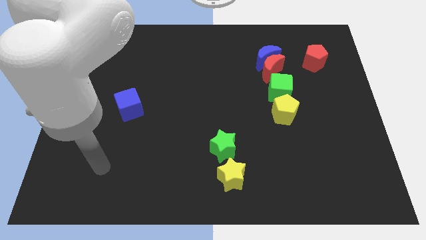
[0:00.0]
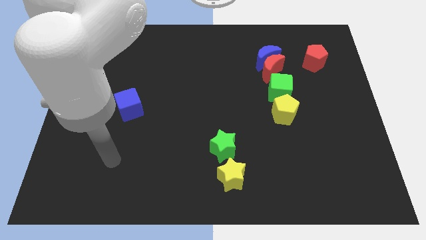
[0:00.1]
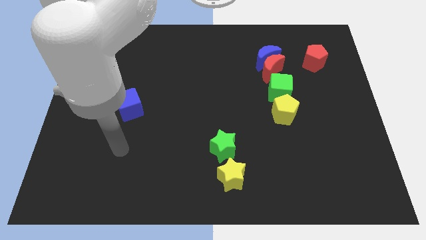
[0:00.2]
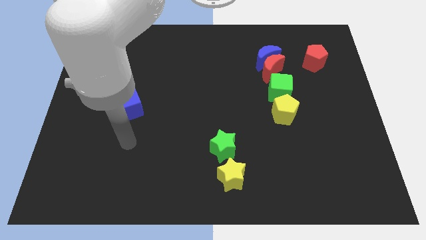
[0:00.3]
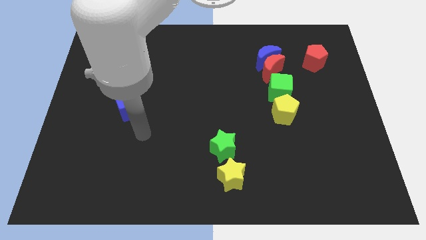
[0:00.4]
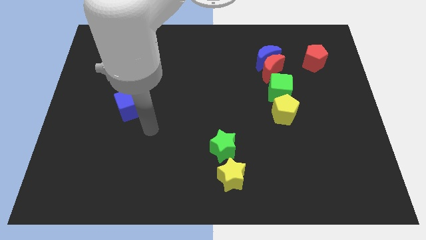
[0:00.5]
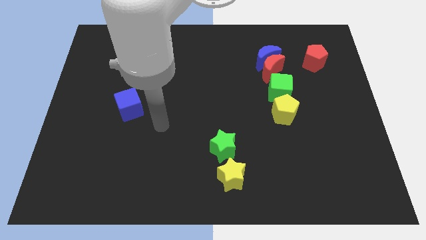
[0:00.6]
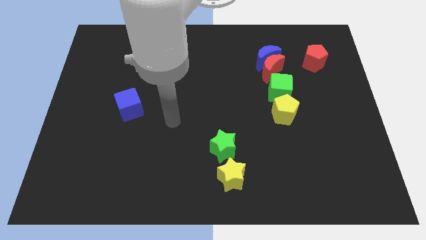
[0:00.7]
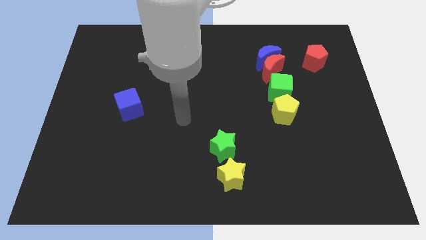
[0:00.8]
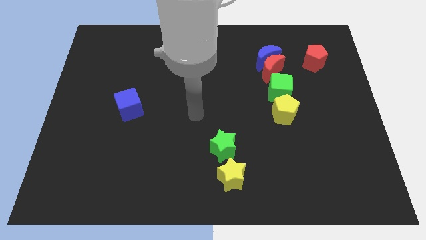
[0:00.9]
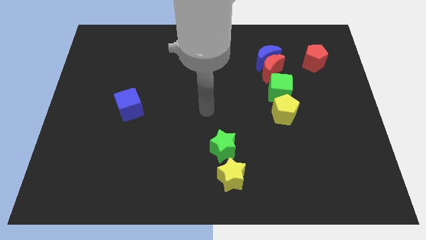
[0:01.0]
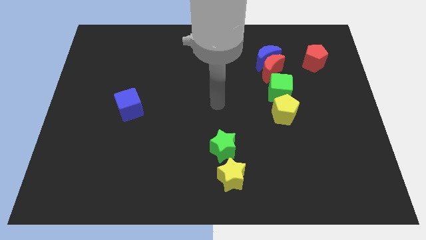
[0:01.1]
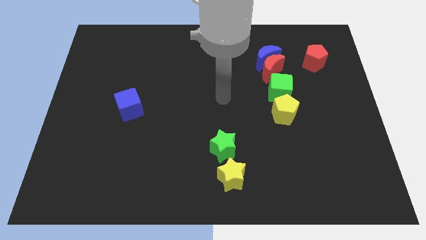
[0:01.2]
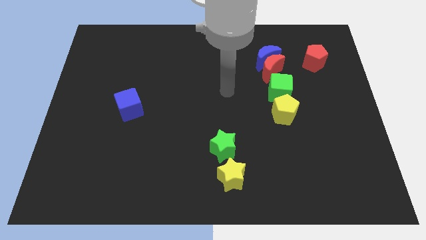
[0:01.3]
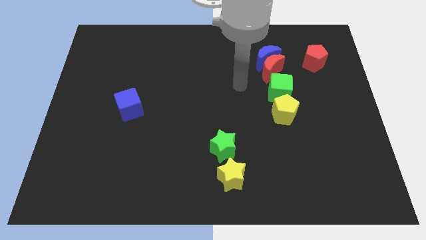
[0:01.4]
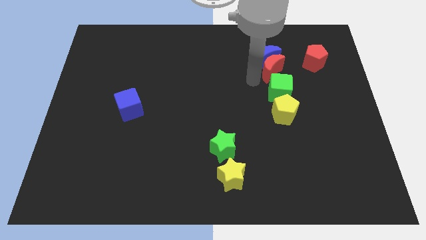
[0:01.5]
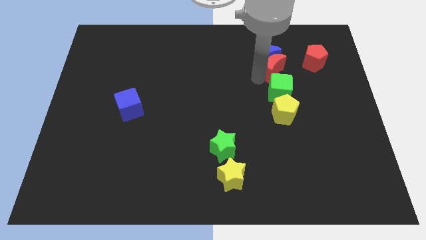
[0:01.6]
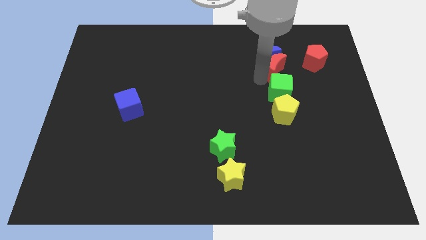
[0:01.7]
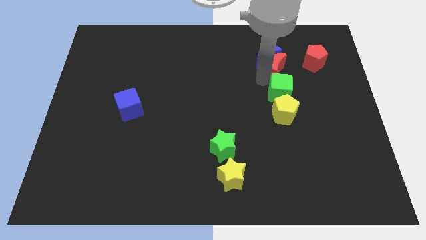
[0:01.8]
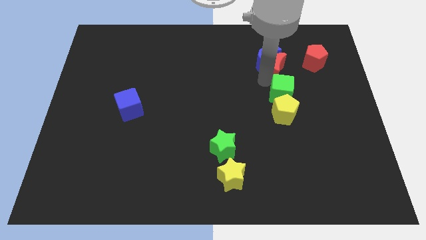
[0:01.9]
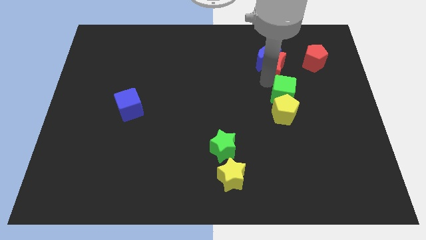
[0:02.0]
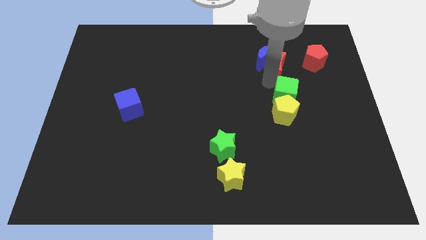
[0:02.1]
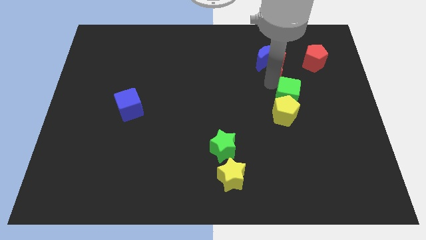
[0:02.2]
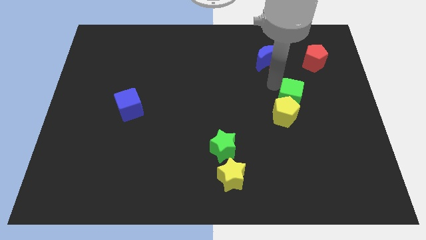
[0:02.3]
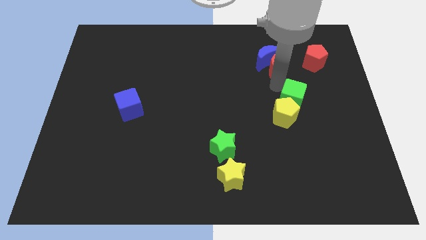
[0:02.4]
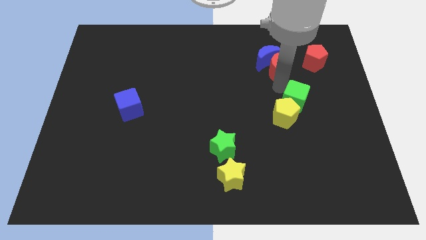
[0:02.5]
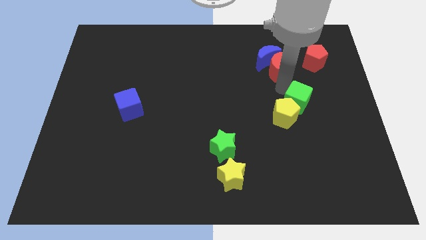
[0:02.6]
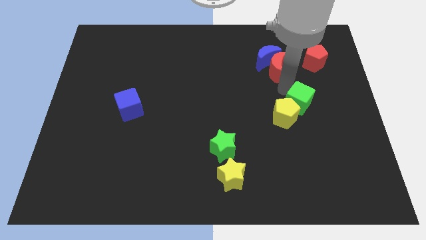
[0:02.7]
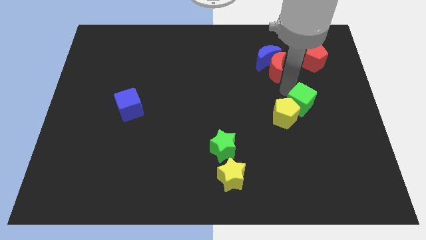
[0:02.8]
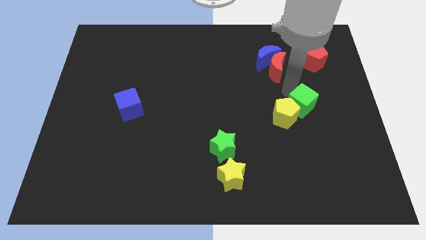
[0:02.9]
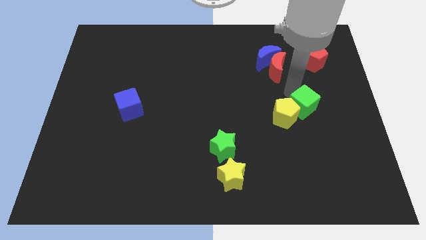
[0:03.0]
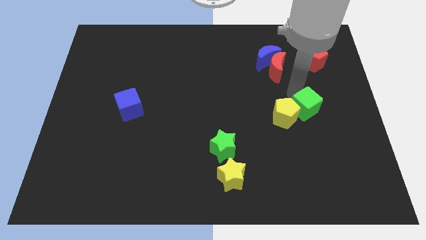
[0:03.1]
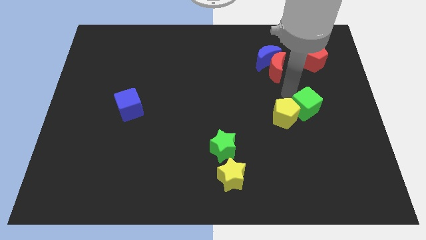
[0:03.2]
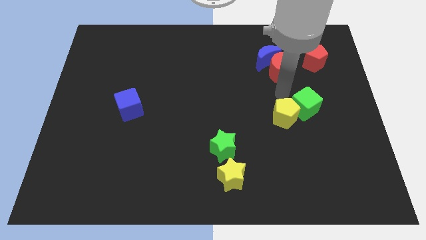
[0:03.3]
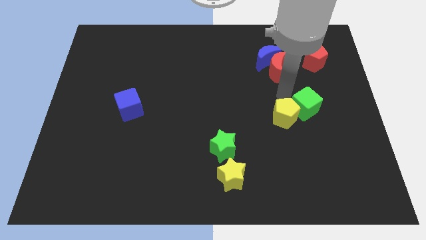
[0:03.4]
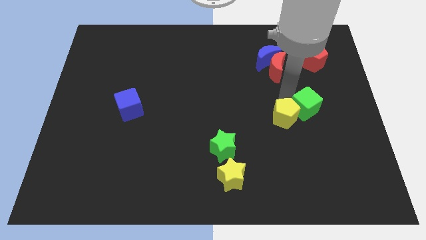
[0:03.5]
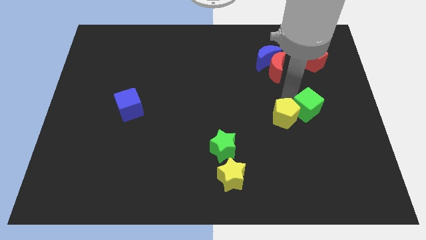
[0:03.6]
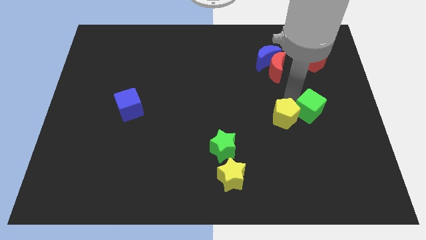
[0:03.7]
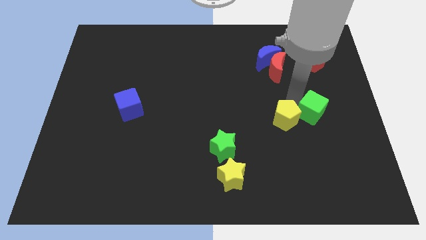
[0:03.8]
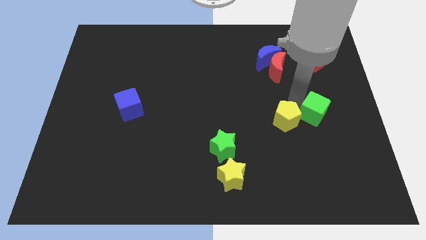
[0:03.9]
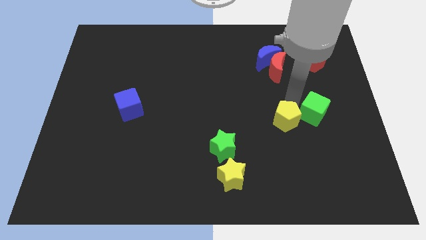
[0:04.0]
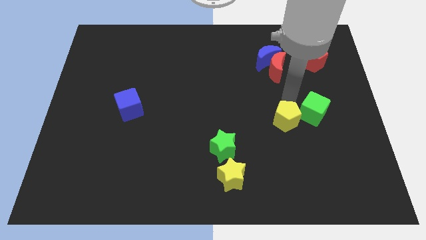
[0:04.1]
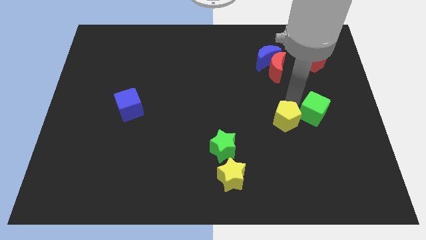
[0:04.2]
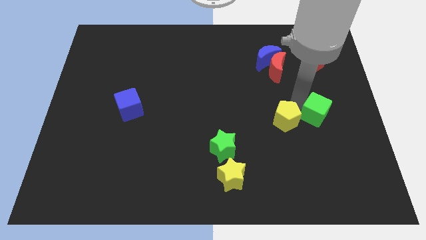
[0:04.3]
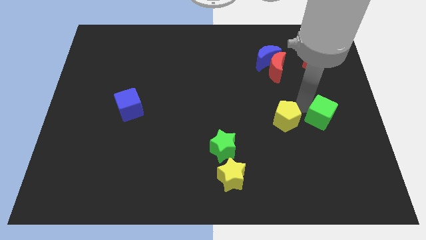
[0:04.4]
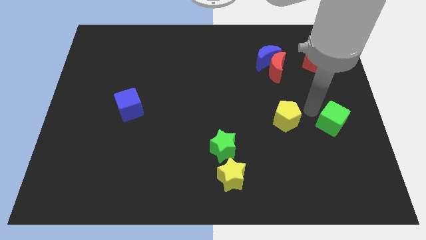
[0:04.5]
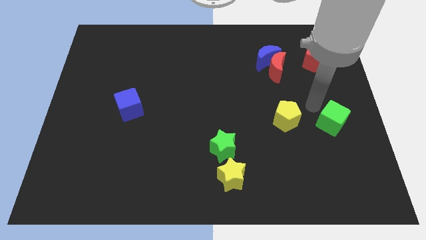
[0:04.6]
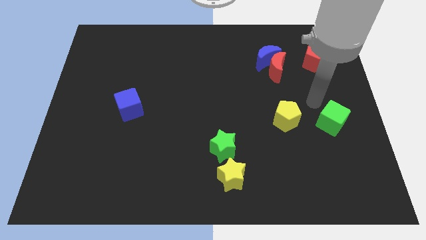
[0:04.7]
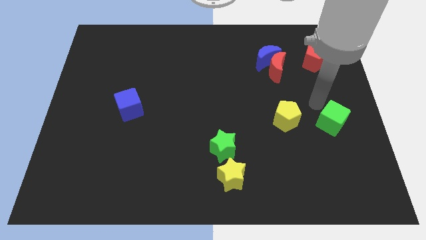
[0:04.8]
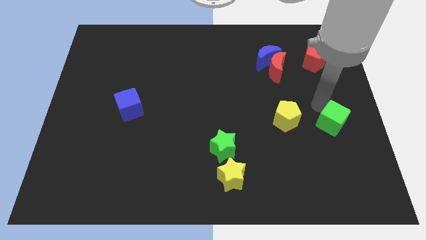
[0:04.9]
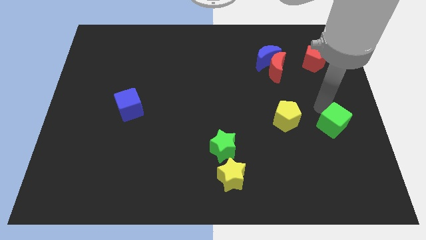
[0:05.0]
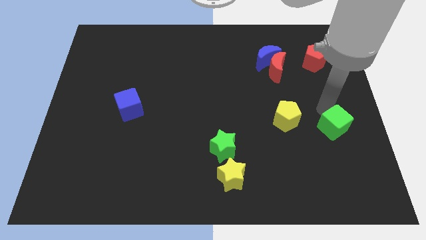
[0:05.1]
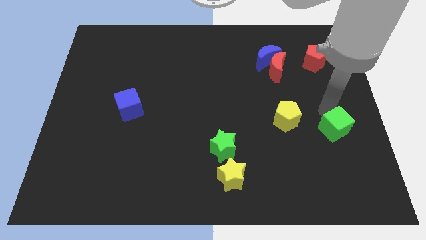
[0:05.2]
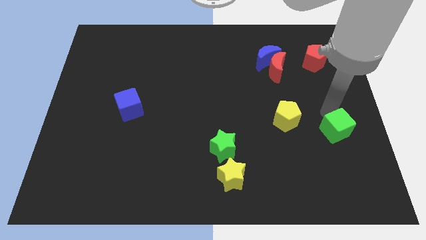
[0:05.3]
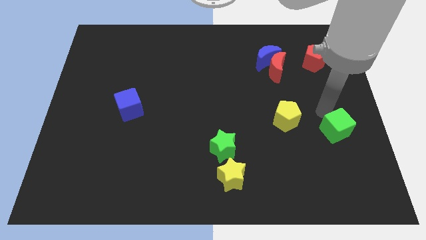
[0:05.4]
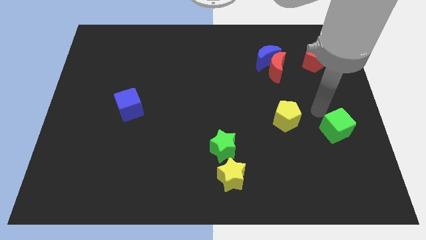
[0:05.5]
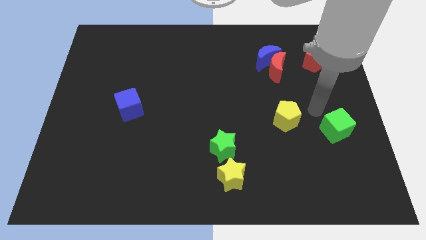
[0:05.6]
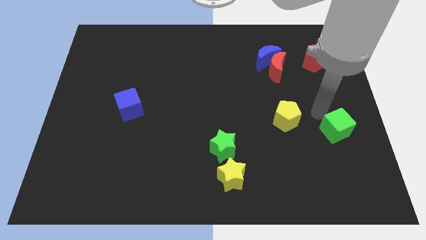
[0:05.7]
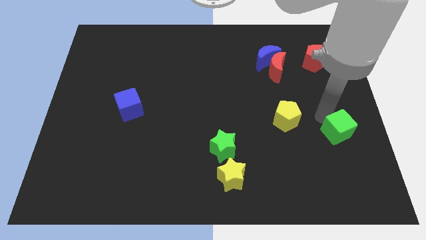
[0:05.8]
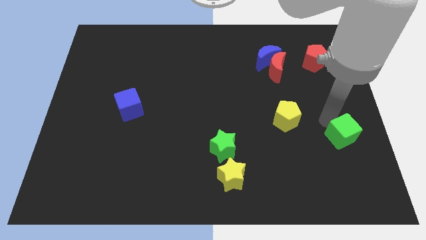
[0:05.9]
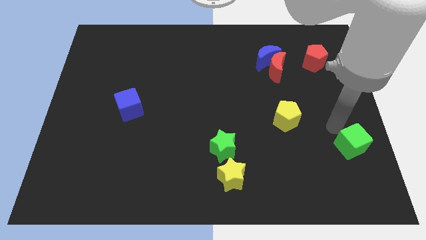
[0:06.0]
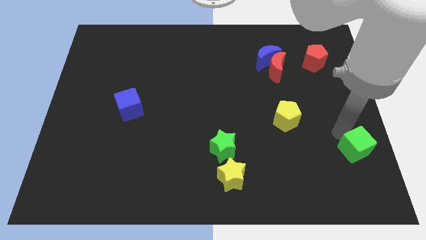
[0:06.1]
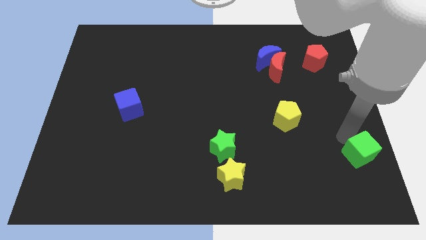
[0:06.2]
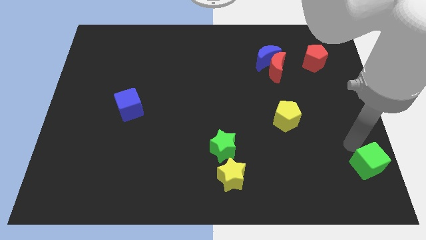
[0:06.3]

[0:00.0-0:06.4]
push the green cube to the bottom right corner
